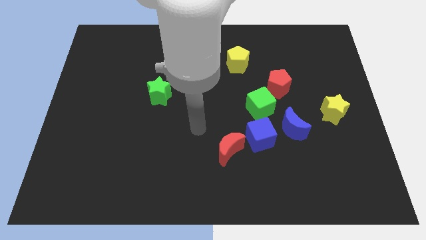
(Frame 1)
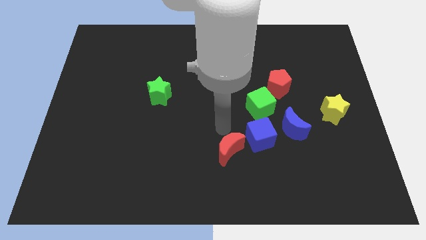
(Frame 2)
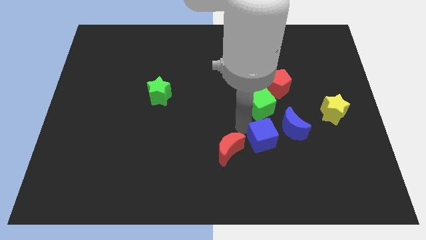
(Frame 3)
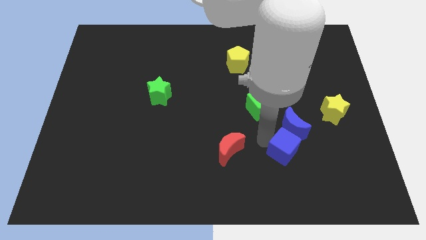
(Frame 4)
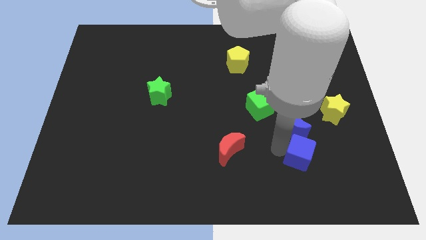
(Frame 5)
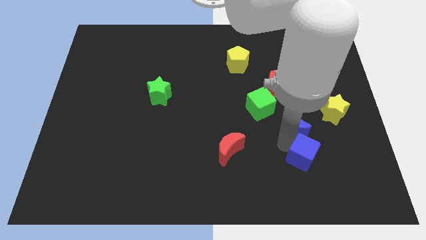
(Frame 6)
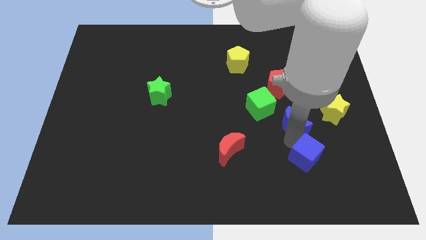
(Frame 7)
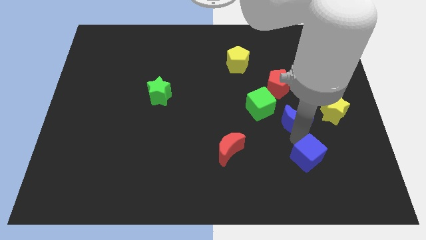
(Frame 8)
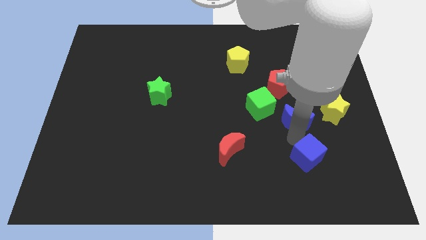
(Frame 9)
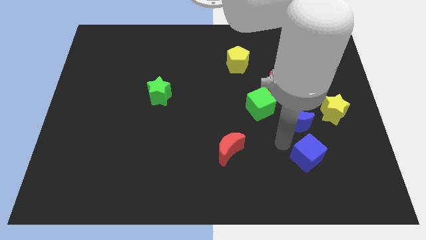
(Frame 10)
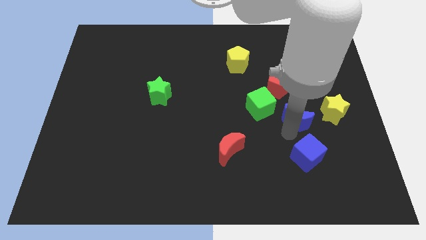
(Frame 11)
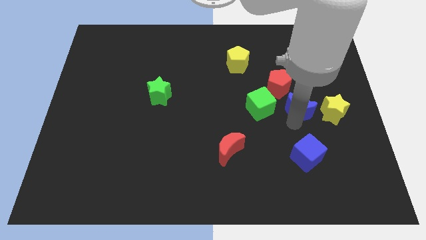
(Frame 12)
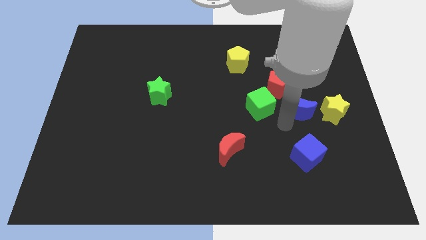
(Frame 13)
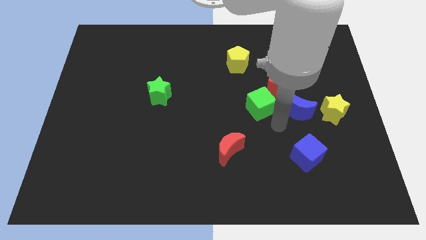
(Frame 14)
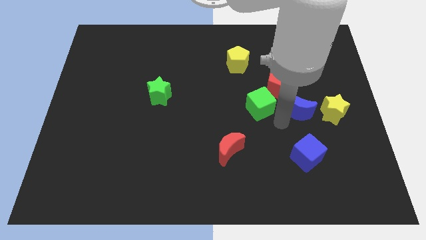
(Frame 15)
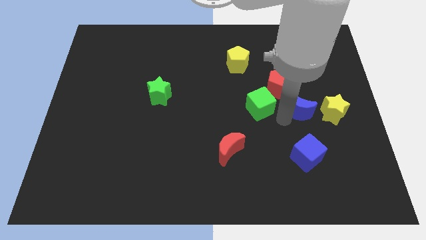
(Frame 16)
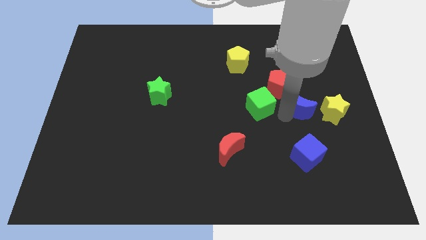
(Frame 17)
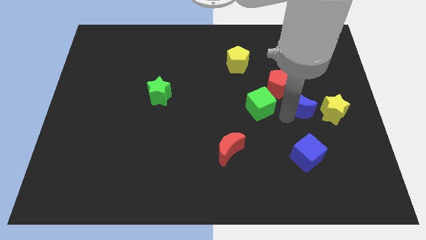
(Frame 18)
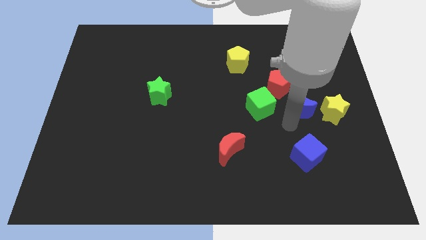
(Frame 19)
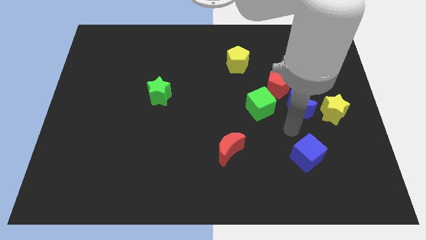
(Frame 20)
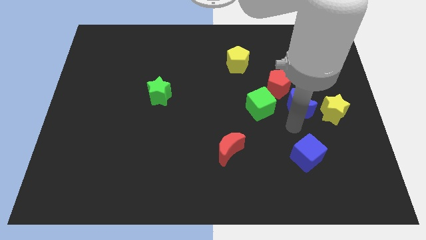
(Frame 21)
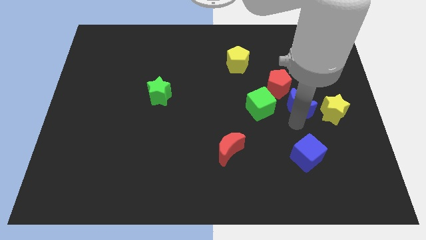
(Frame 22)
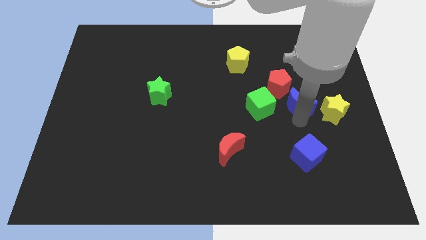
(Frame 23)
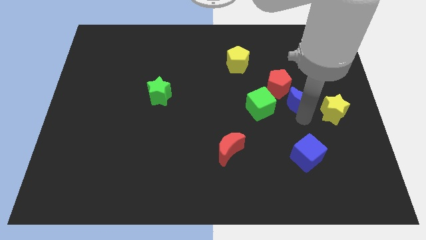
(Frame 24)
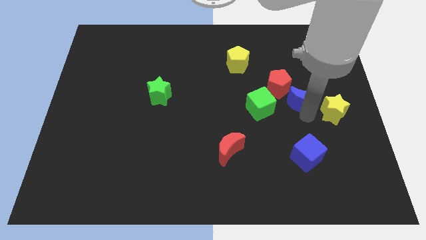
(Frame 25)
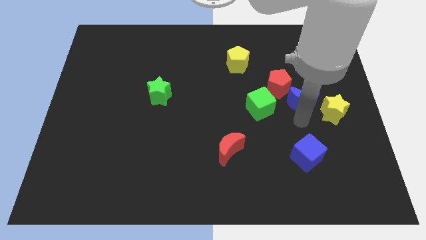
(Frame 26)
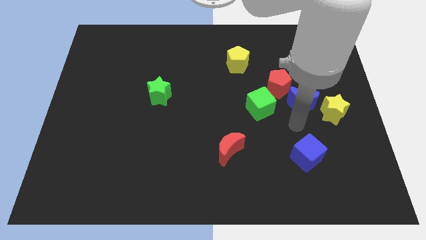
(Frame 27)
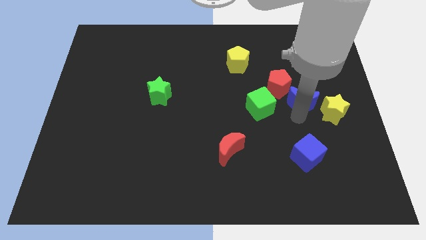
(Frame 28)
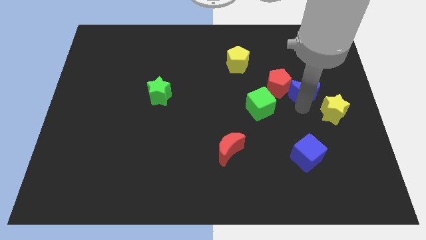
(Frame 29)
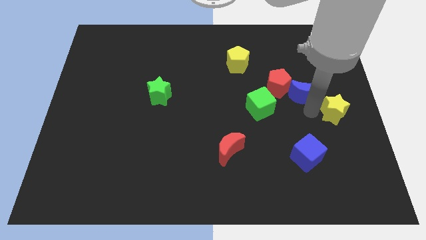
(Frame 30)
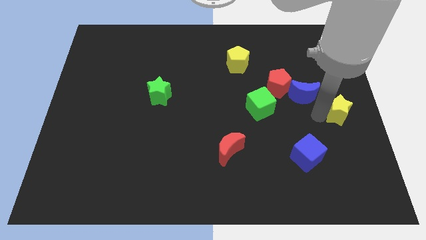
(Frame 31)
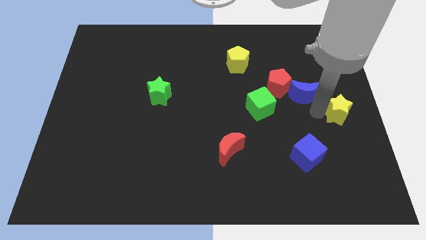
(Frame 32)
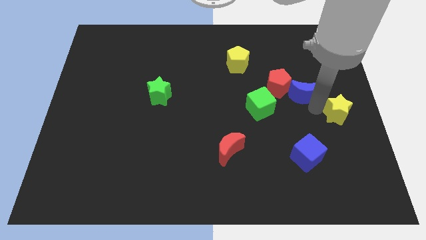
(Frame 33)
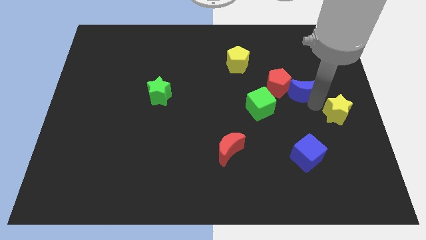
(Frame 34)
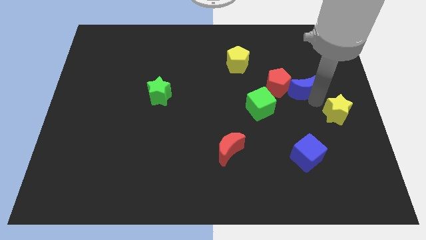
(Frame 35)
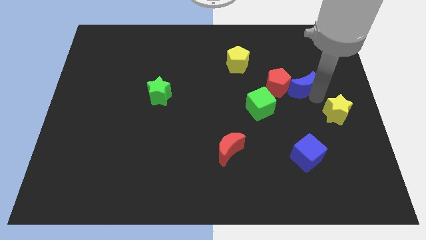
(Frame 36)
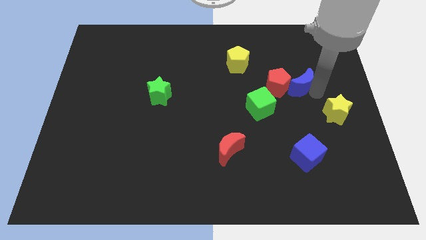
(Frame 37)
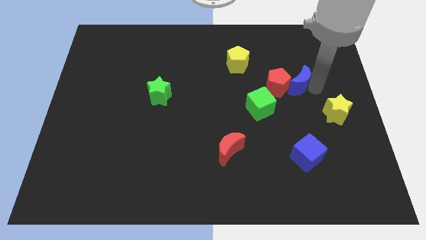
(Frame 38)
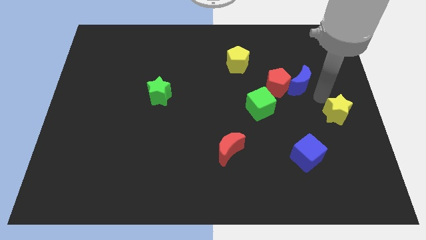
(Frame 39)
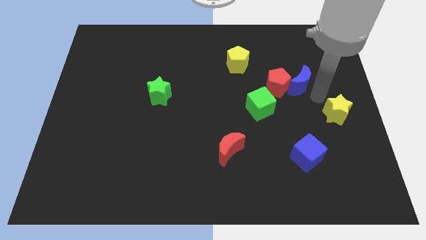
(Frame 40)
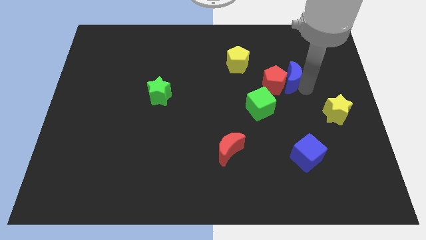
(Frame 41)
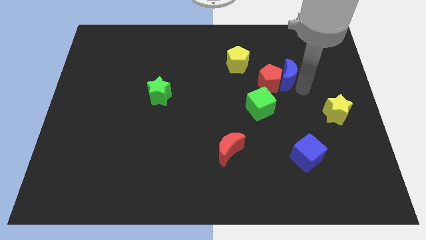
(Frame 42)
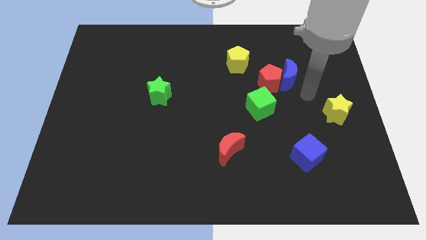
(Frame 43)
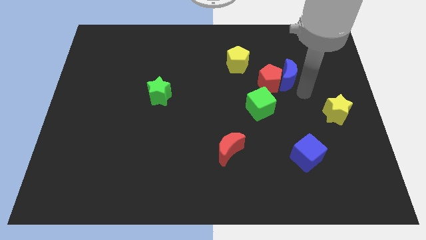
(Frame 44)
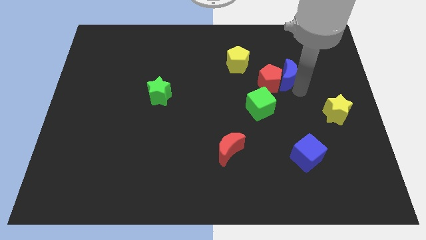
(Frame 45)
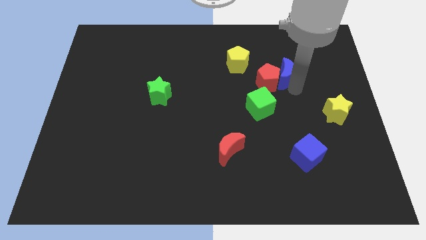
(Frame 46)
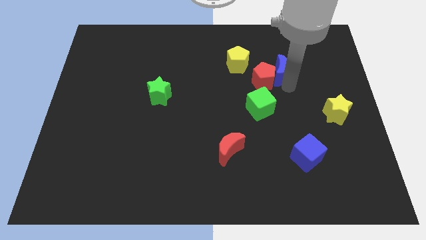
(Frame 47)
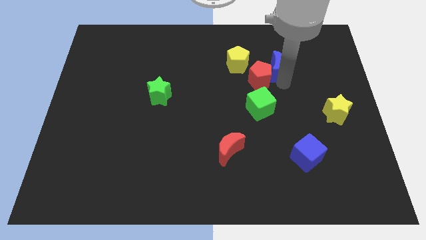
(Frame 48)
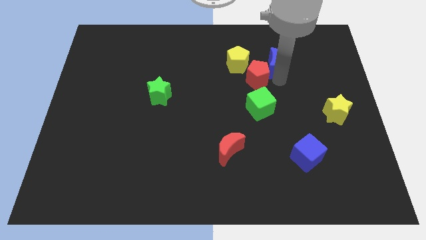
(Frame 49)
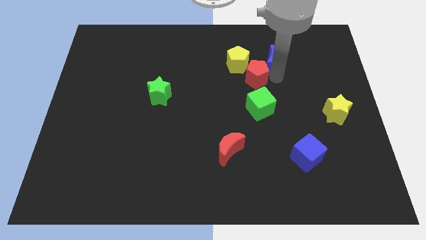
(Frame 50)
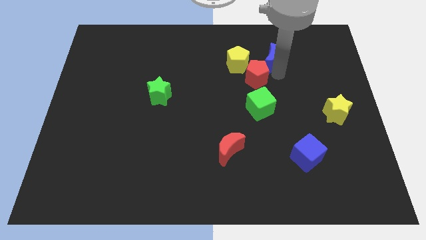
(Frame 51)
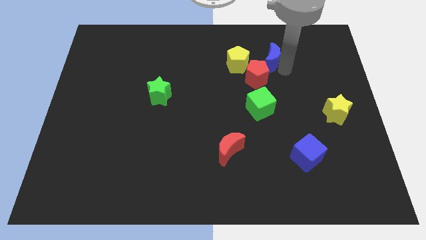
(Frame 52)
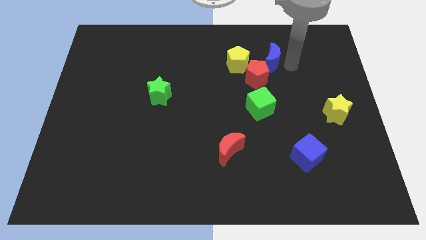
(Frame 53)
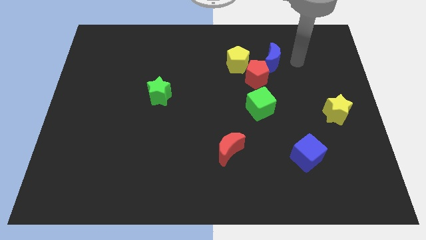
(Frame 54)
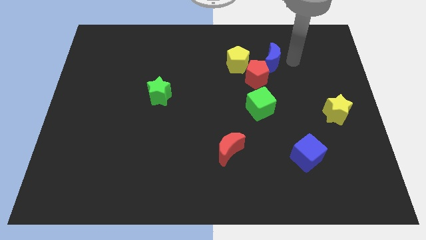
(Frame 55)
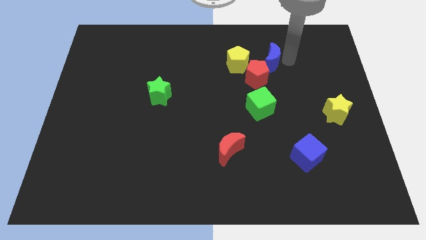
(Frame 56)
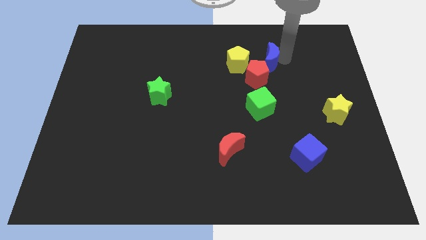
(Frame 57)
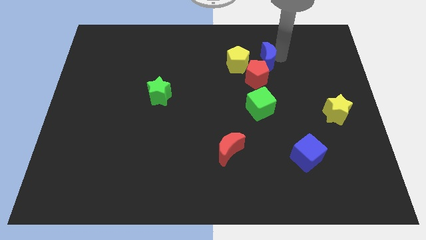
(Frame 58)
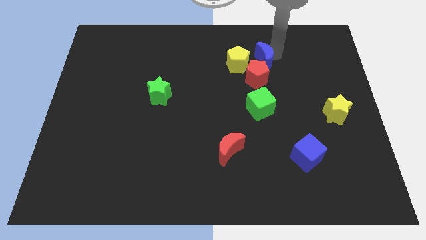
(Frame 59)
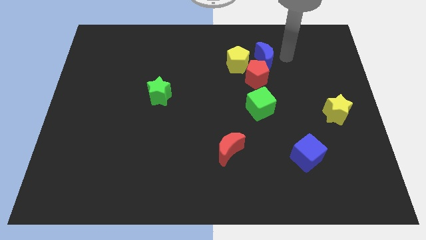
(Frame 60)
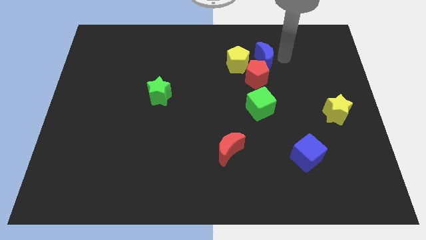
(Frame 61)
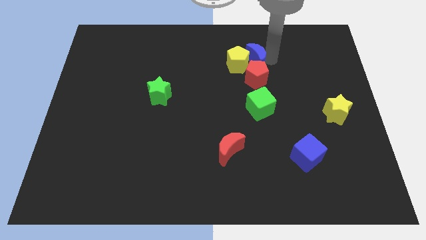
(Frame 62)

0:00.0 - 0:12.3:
put the blue moon close to the yellow pentagon
